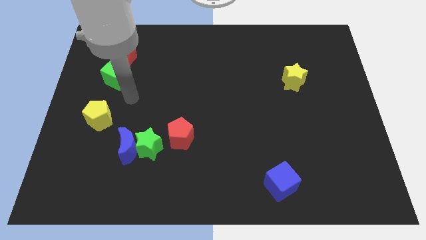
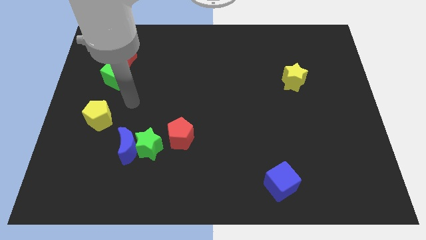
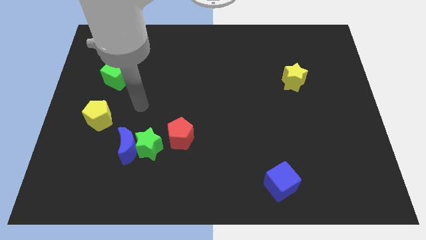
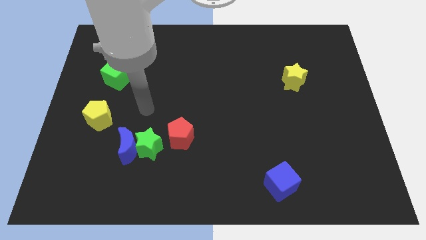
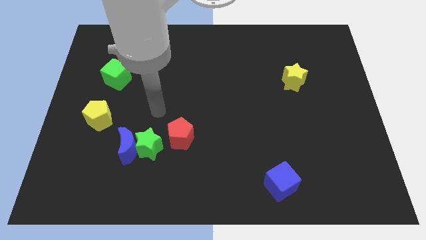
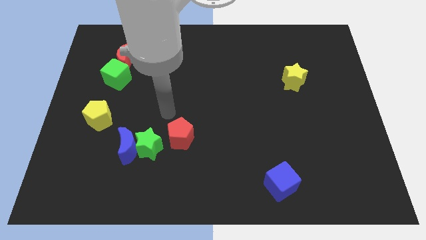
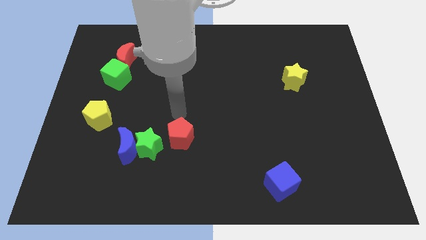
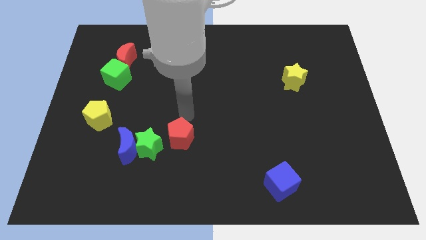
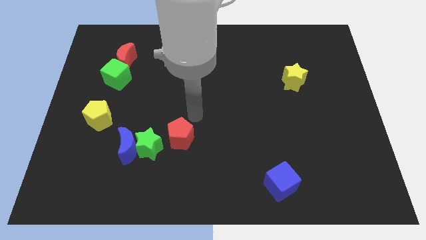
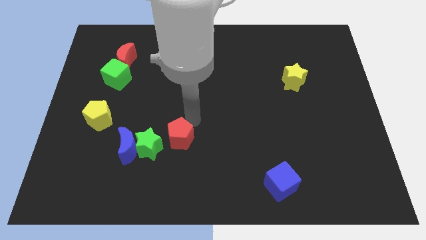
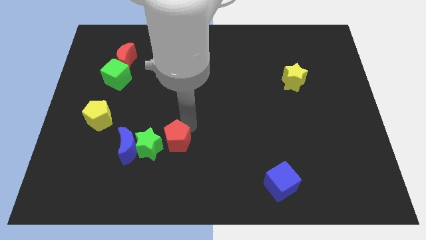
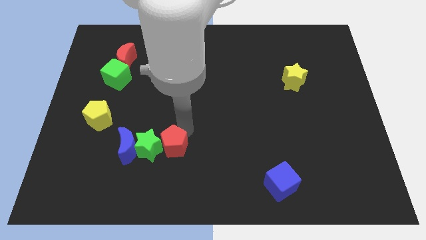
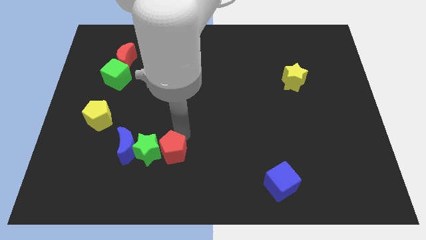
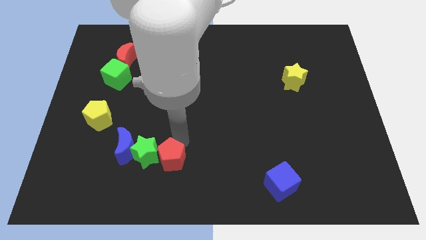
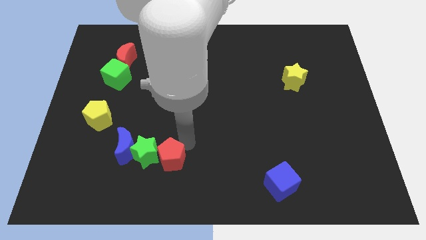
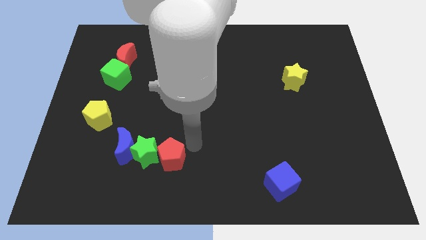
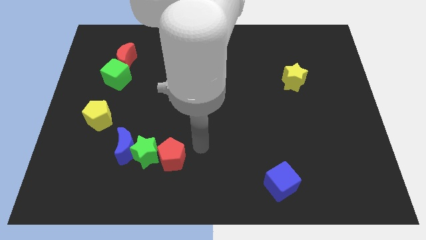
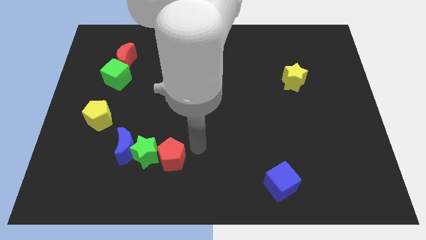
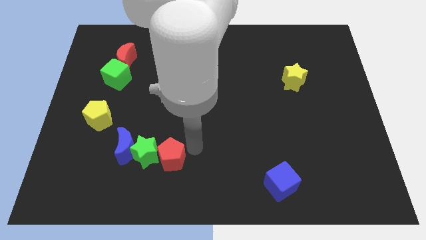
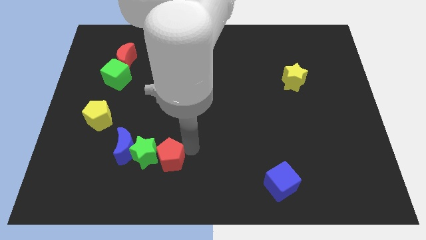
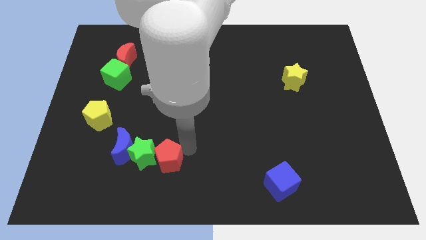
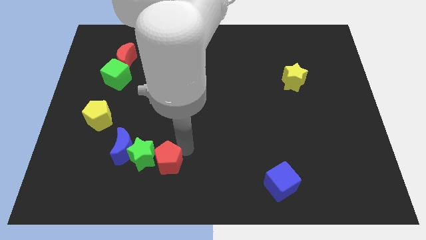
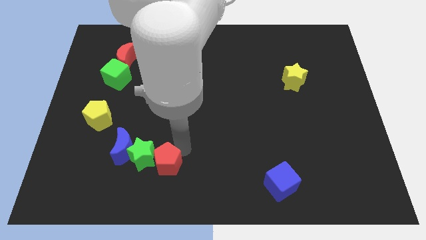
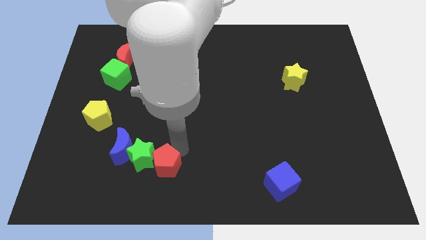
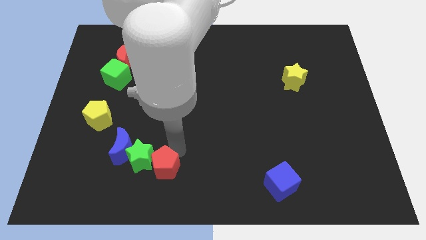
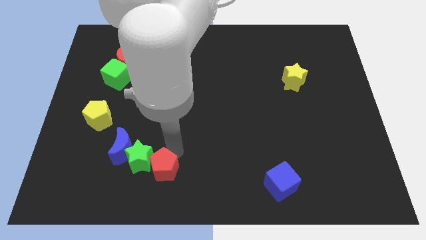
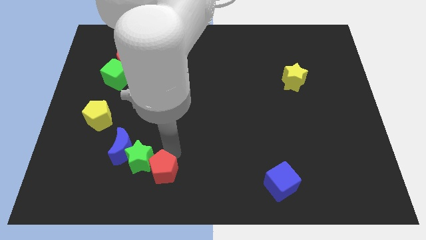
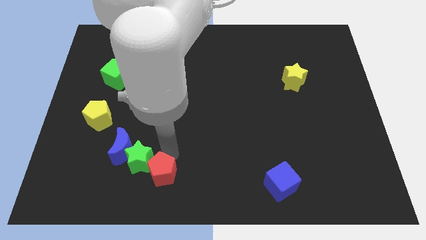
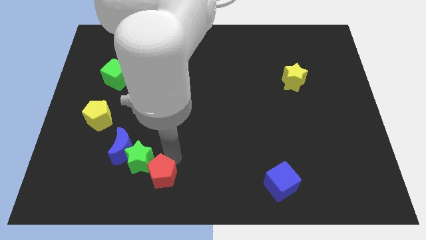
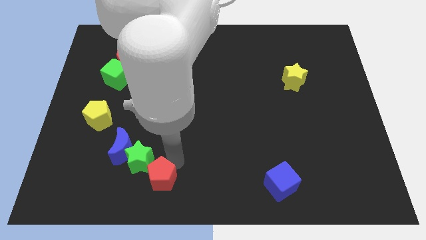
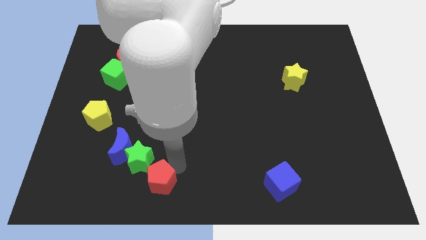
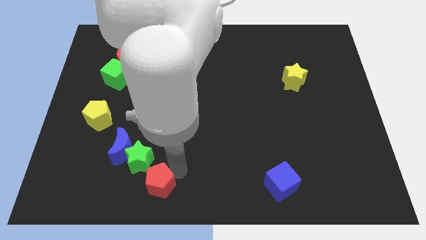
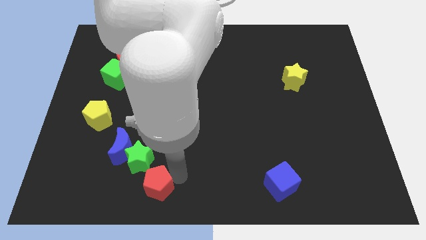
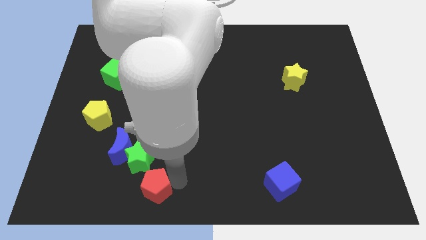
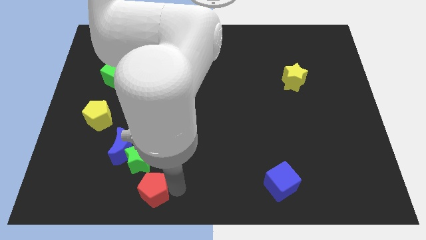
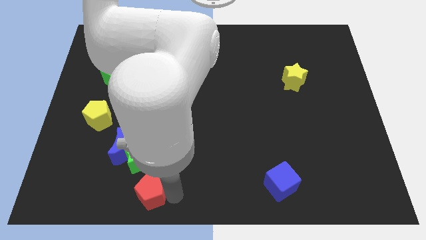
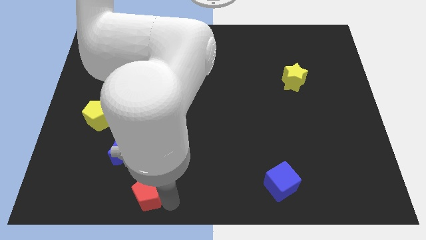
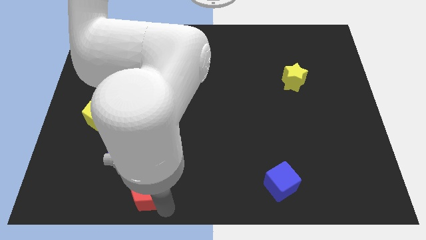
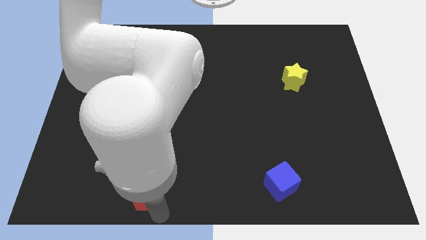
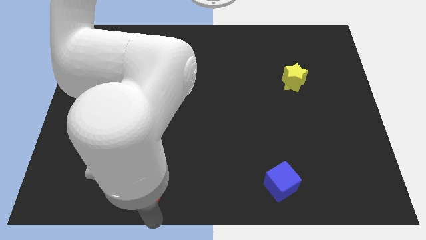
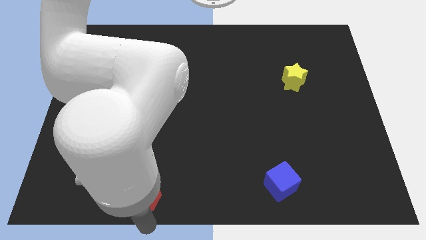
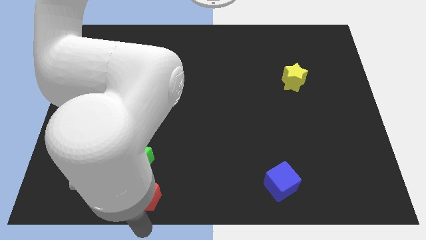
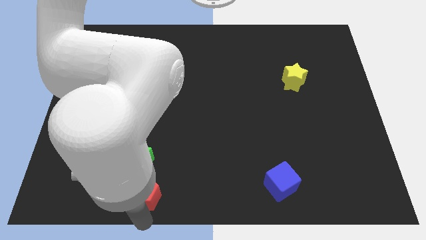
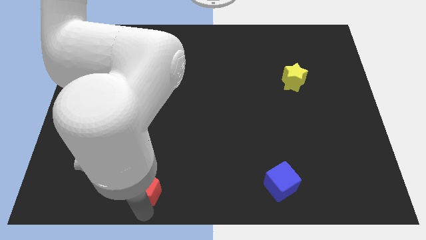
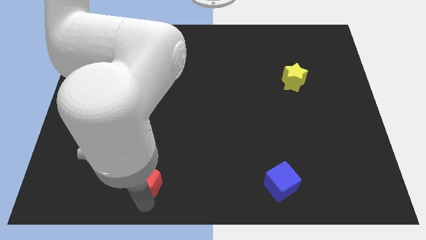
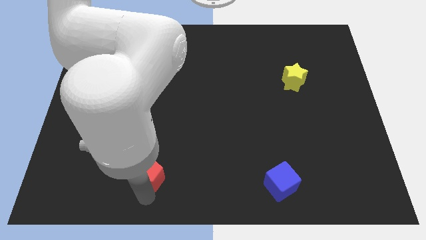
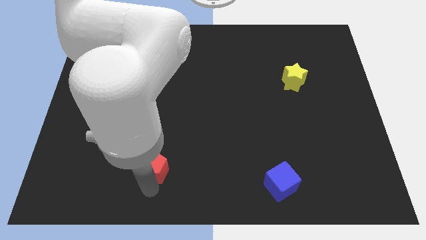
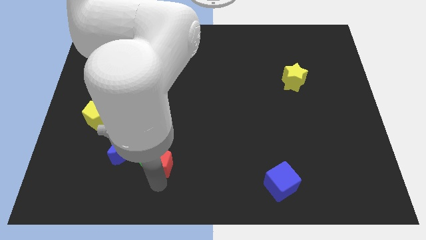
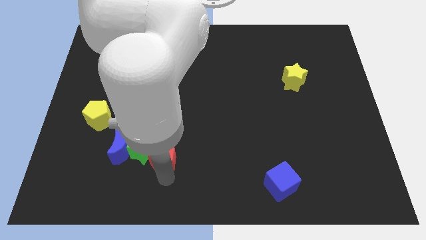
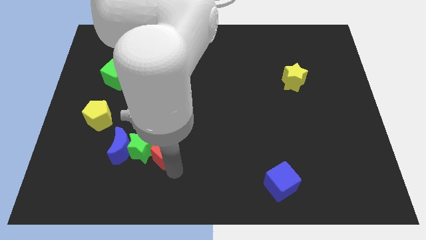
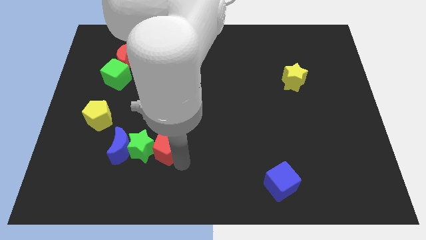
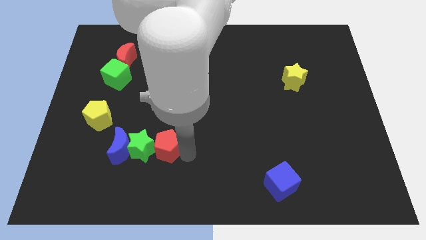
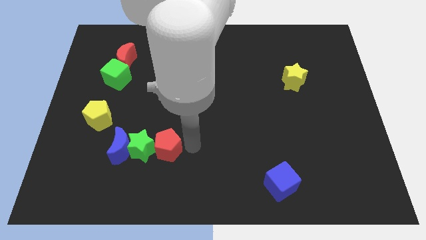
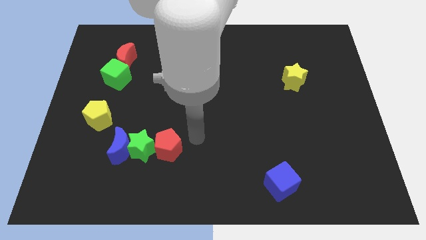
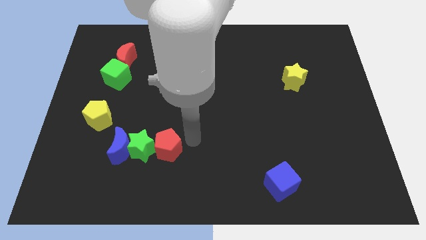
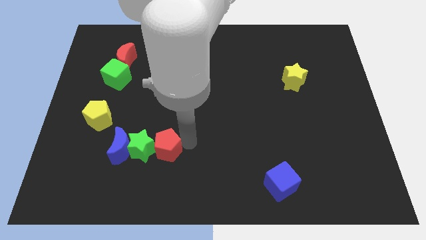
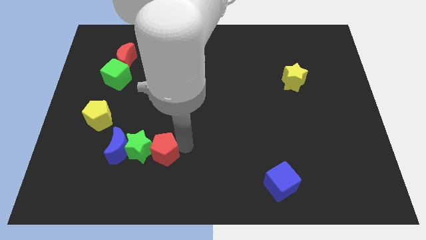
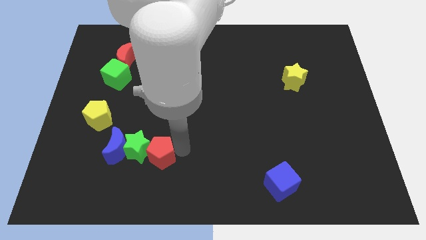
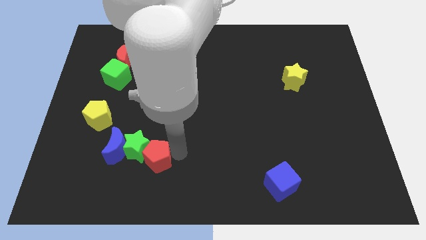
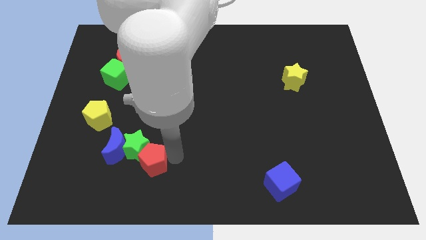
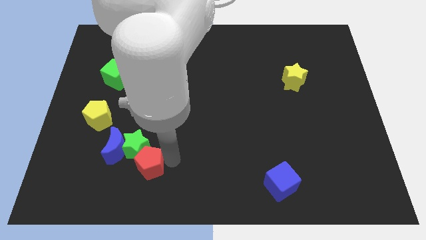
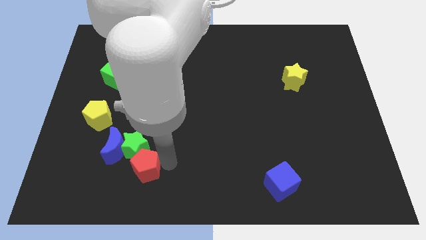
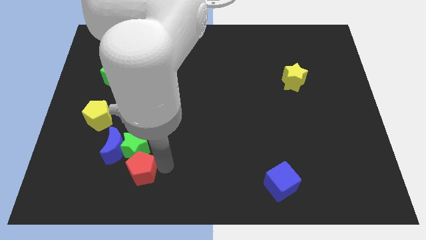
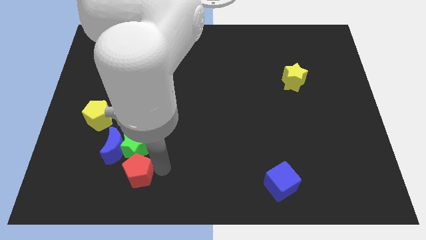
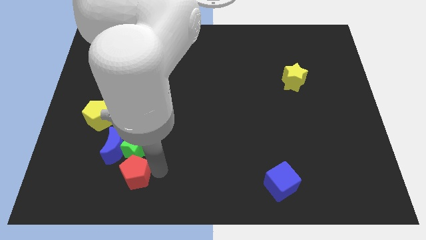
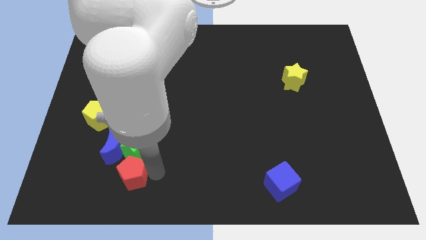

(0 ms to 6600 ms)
push the red pentagon to the bottom left side of the green star

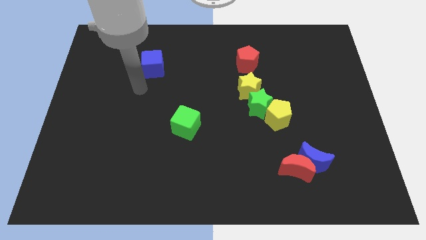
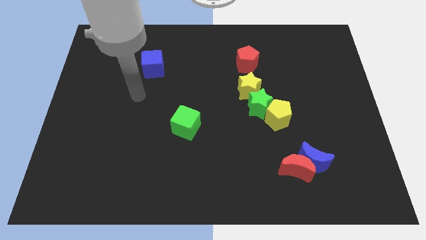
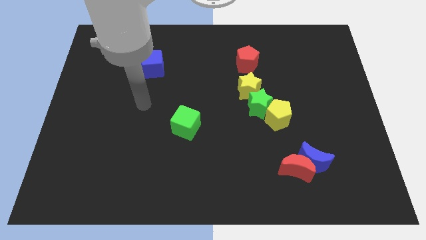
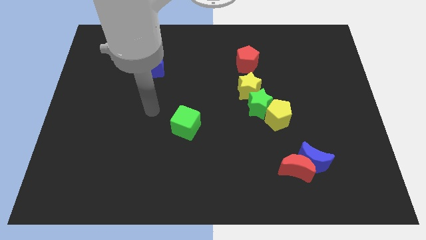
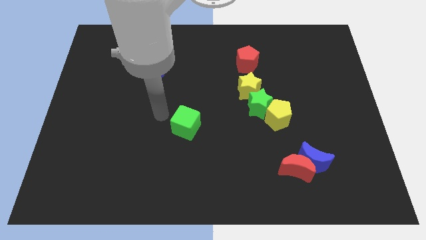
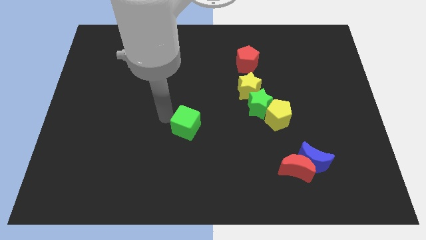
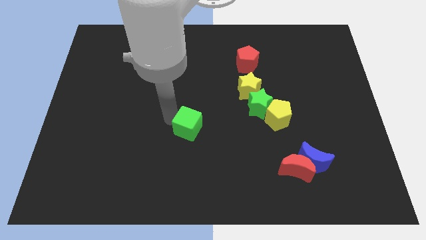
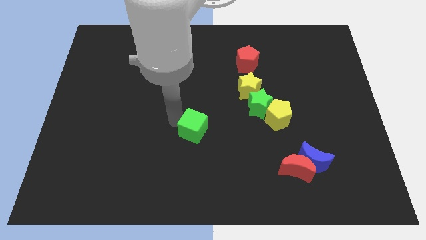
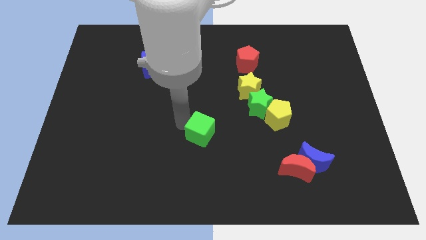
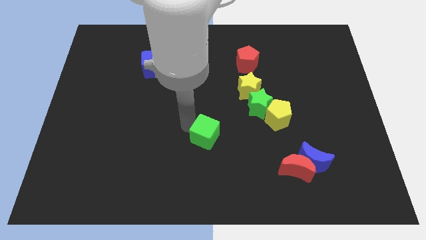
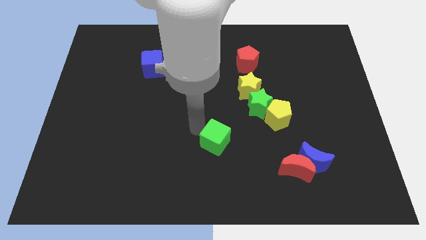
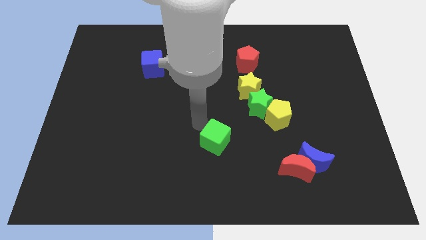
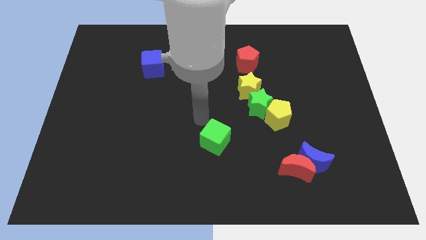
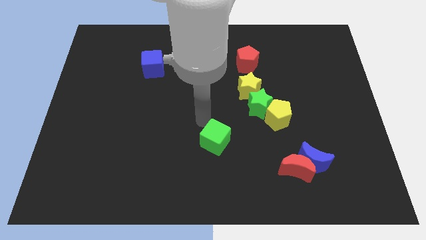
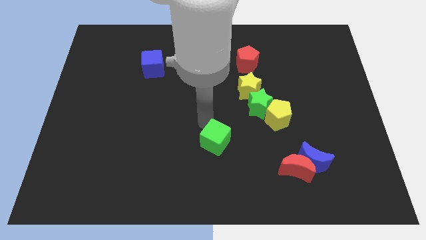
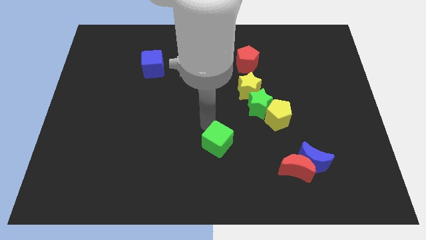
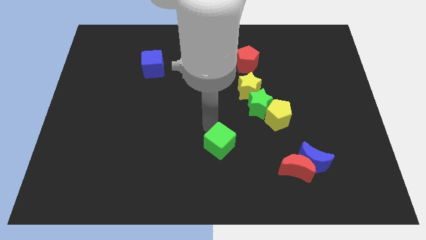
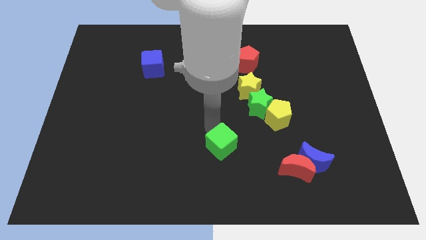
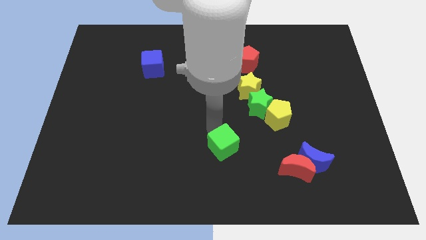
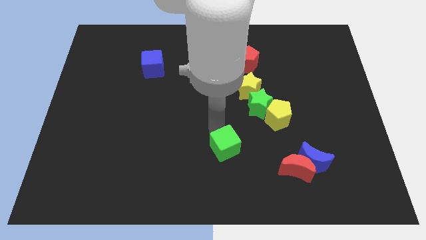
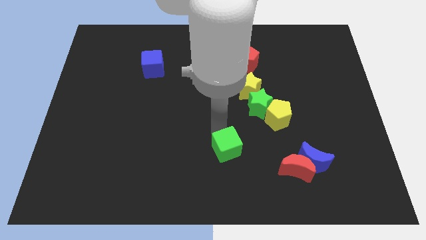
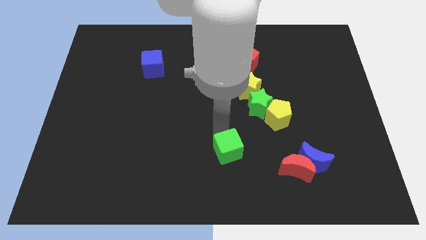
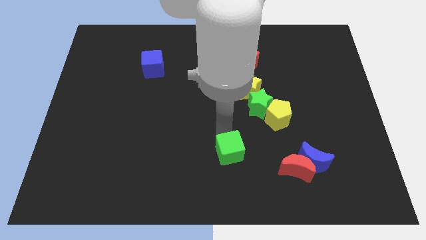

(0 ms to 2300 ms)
slide the green cube left of the red moon
